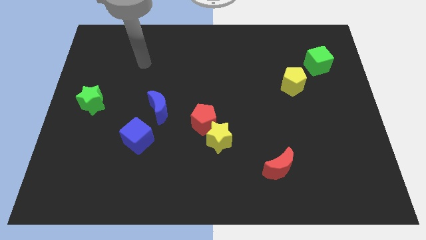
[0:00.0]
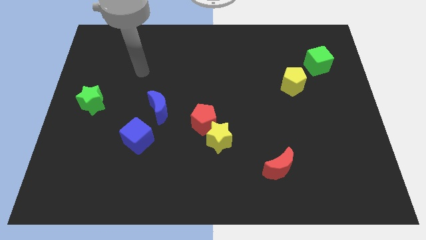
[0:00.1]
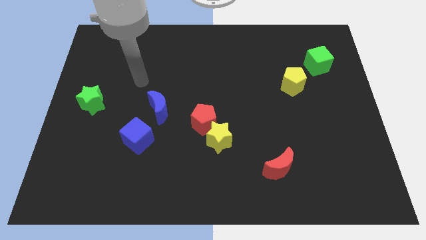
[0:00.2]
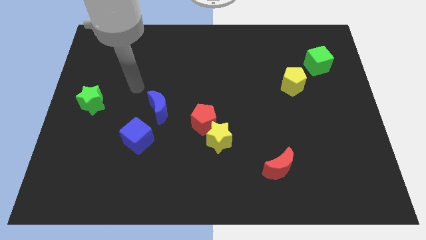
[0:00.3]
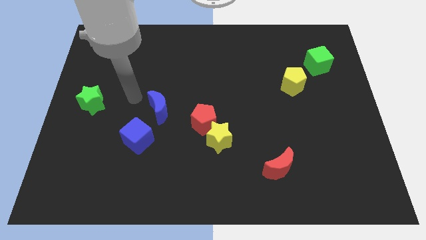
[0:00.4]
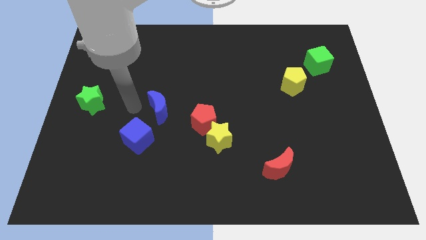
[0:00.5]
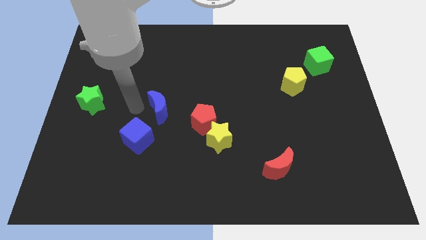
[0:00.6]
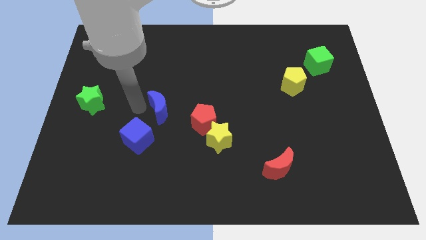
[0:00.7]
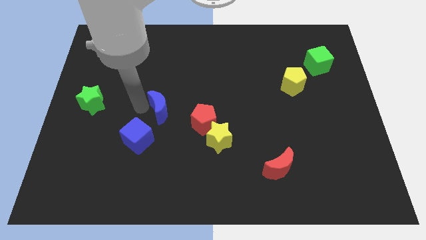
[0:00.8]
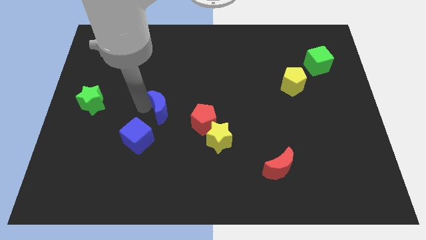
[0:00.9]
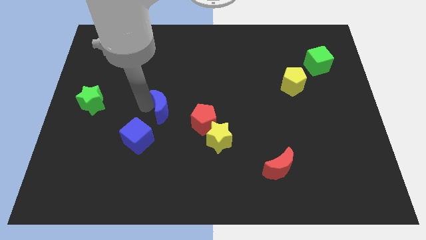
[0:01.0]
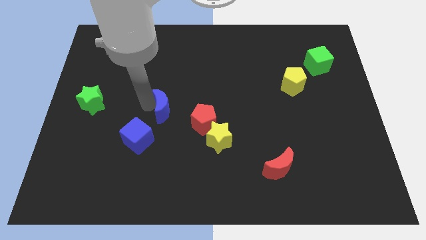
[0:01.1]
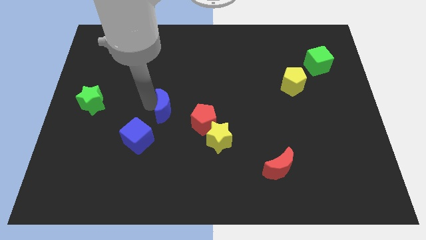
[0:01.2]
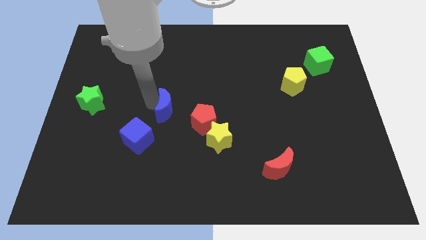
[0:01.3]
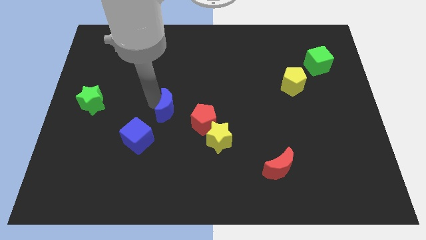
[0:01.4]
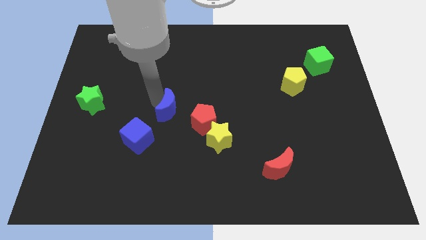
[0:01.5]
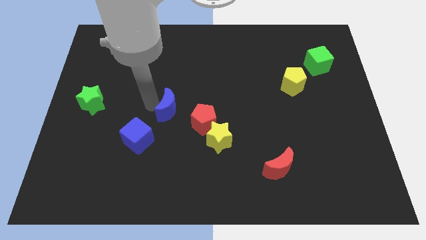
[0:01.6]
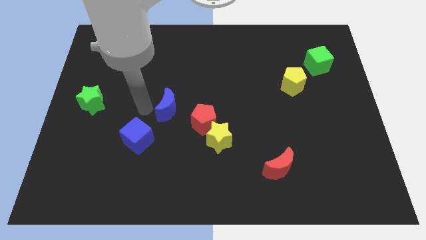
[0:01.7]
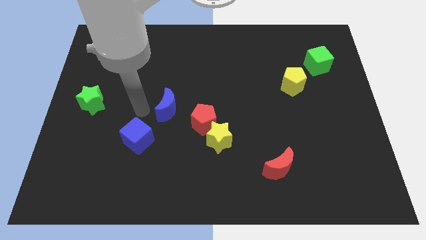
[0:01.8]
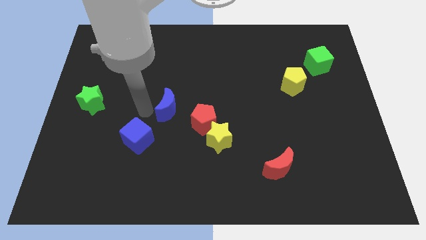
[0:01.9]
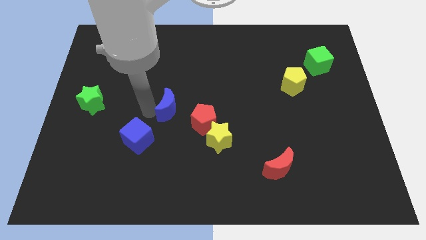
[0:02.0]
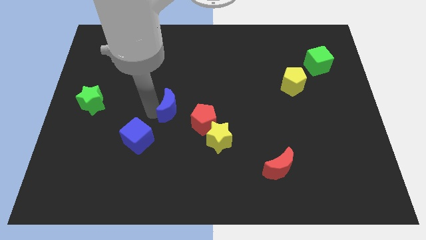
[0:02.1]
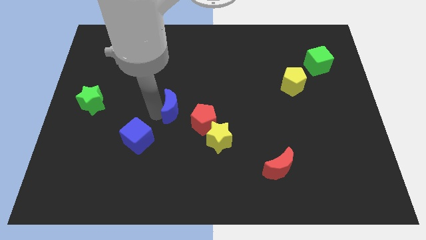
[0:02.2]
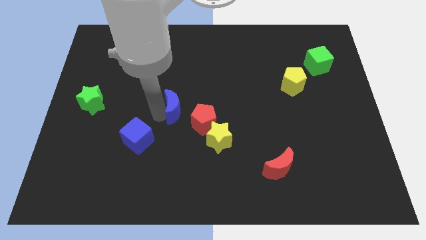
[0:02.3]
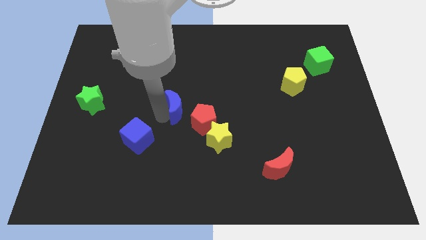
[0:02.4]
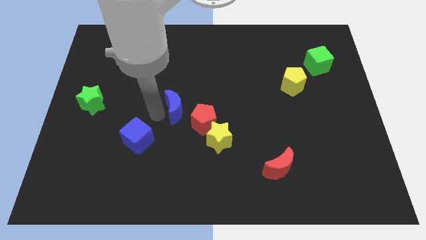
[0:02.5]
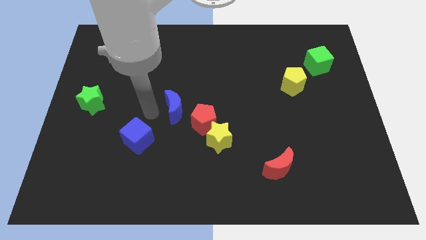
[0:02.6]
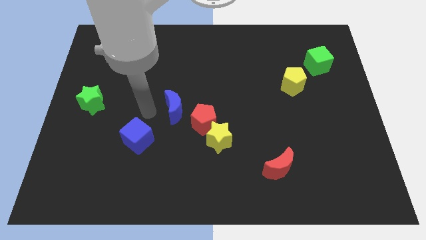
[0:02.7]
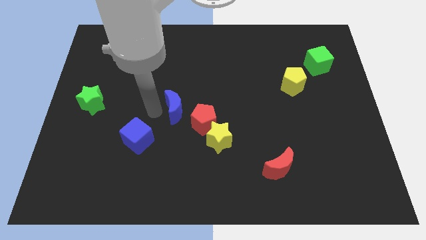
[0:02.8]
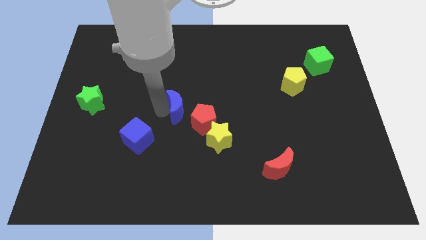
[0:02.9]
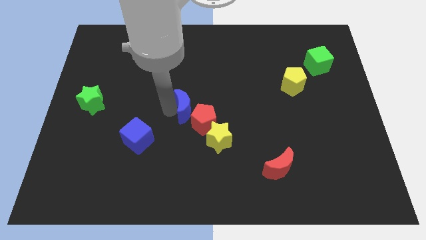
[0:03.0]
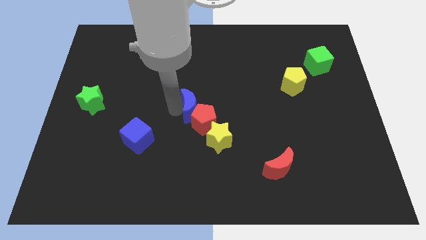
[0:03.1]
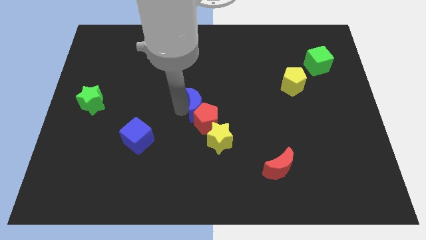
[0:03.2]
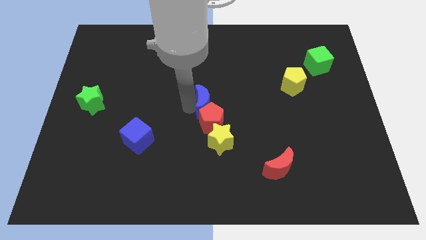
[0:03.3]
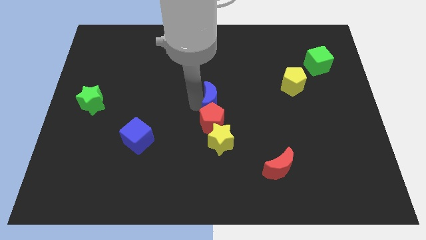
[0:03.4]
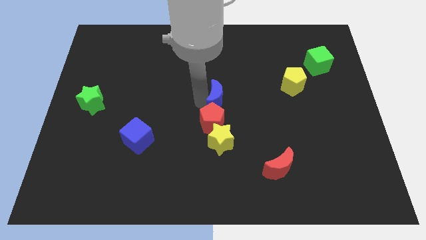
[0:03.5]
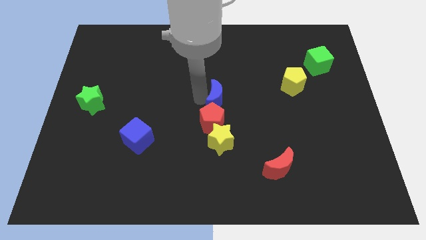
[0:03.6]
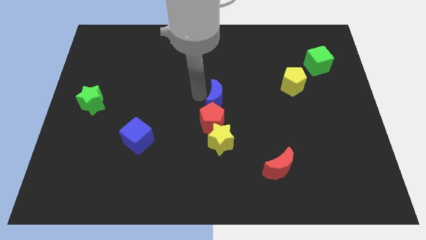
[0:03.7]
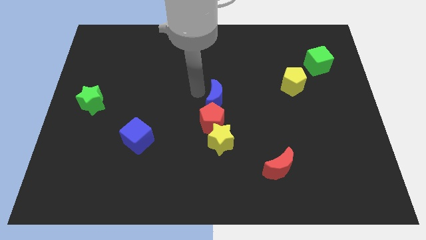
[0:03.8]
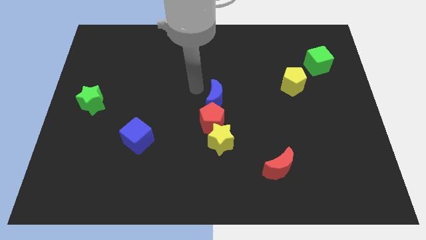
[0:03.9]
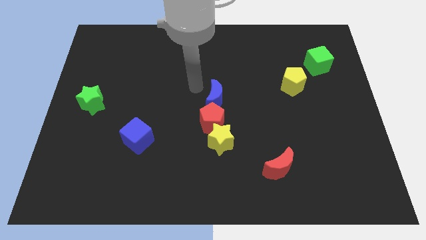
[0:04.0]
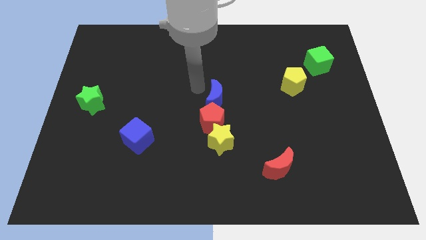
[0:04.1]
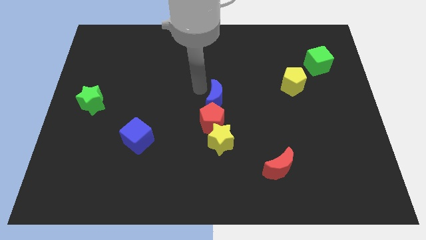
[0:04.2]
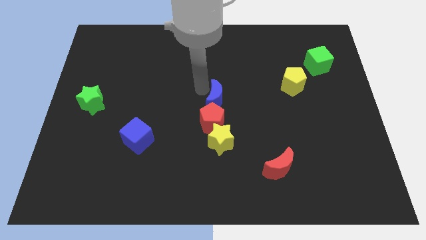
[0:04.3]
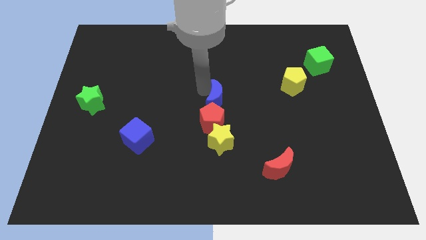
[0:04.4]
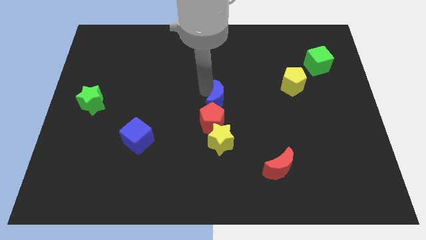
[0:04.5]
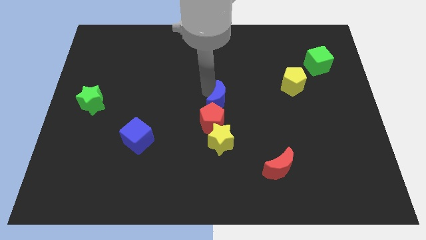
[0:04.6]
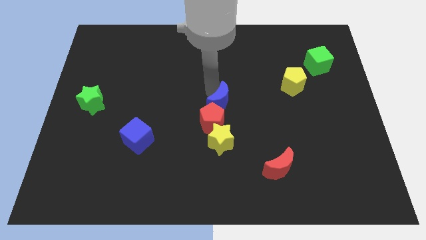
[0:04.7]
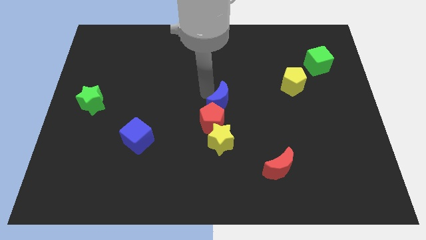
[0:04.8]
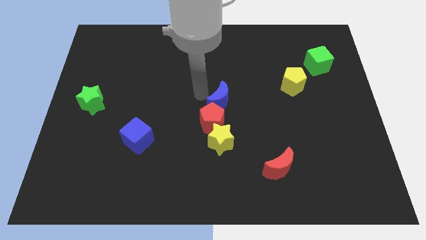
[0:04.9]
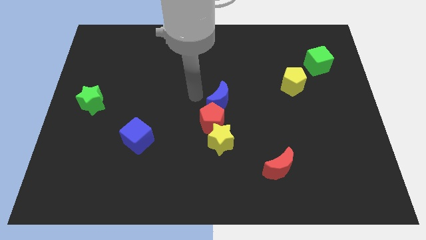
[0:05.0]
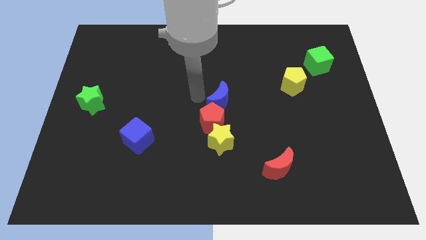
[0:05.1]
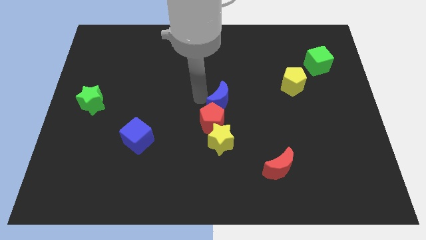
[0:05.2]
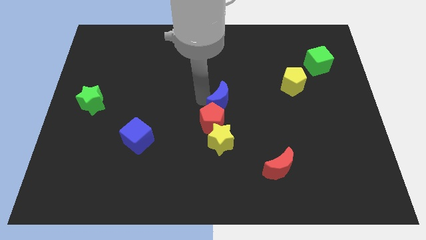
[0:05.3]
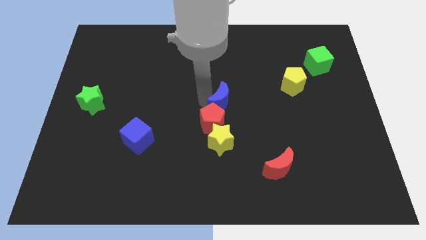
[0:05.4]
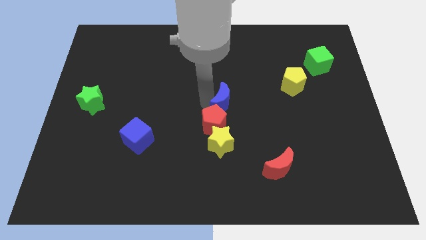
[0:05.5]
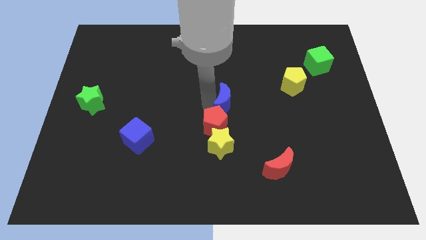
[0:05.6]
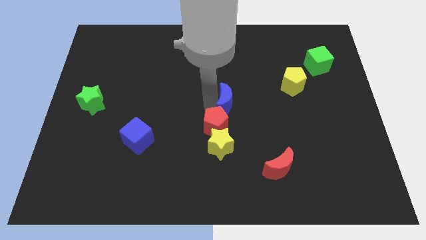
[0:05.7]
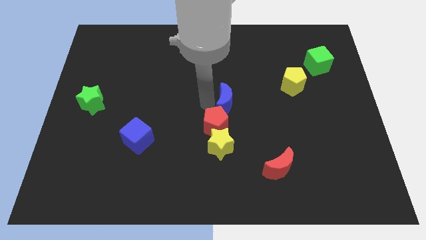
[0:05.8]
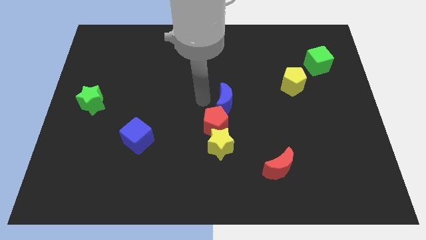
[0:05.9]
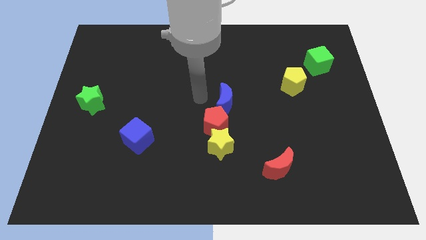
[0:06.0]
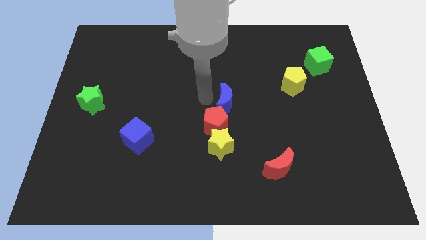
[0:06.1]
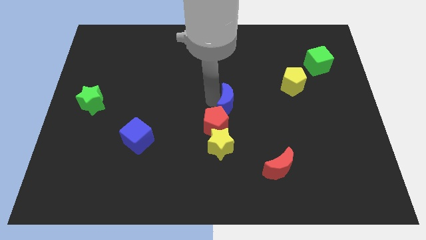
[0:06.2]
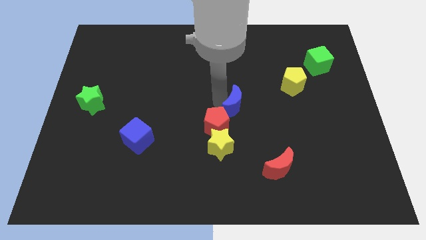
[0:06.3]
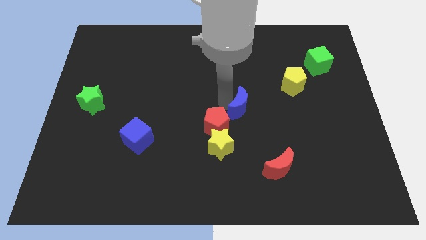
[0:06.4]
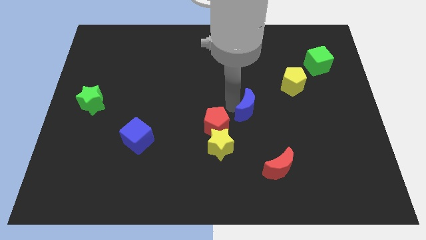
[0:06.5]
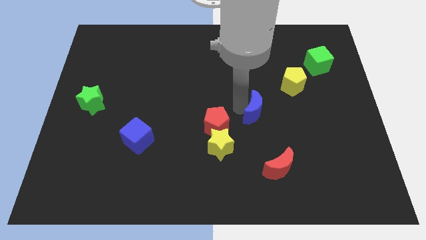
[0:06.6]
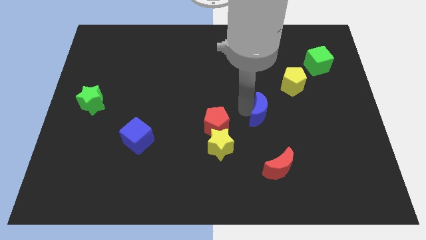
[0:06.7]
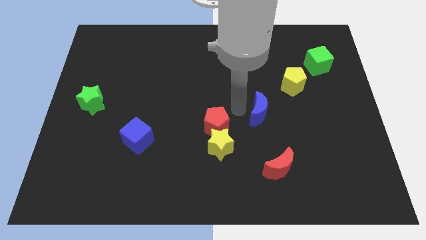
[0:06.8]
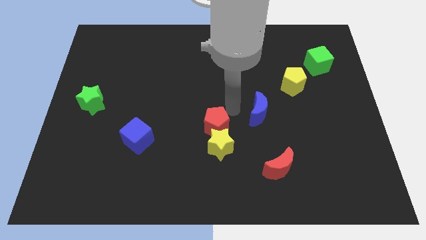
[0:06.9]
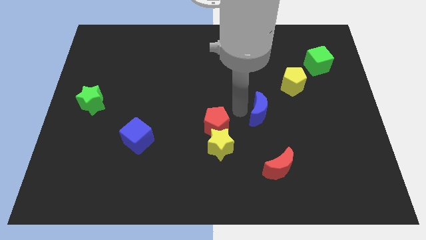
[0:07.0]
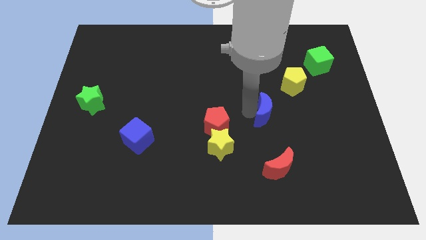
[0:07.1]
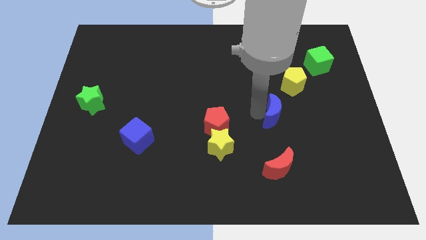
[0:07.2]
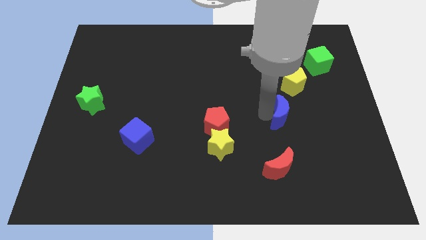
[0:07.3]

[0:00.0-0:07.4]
put the blue moon to the bottom of the yellow pentagon
